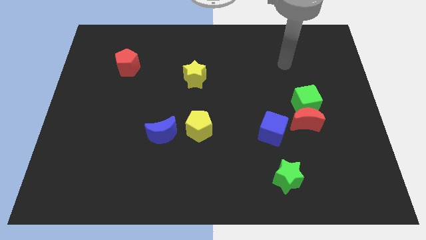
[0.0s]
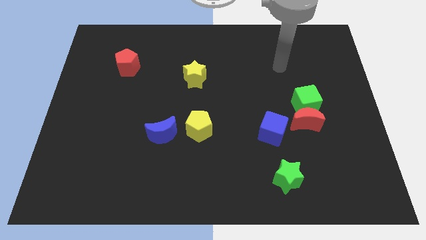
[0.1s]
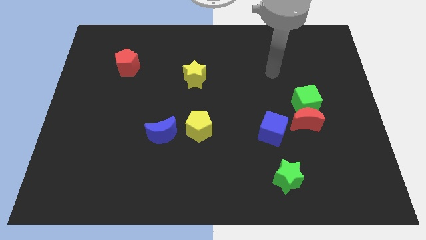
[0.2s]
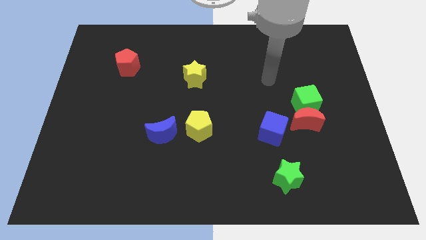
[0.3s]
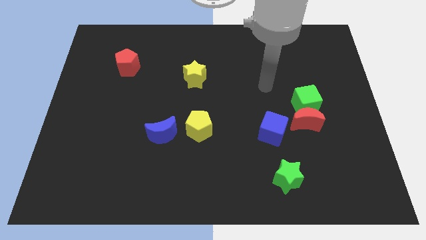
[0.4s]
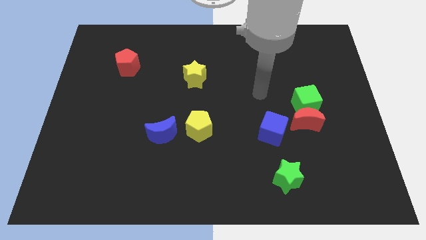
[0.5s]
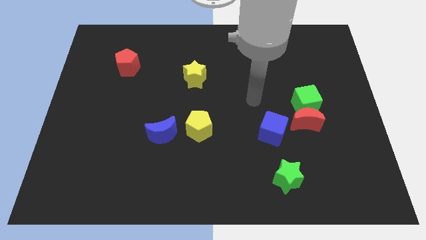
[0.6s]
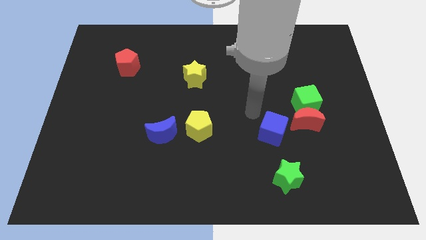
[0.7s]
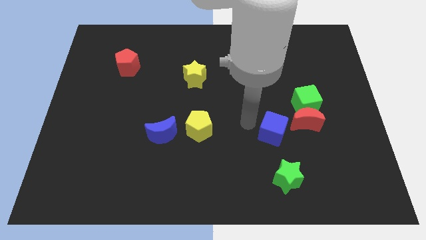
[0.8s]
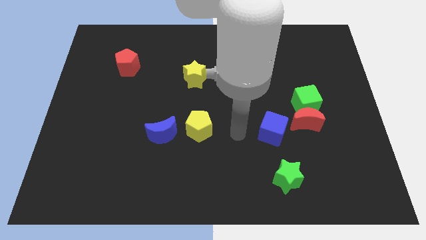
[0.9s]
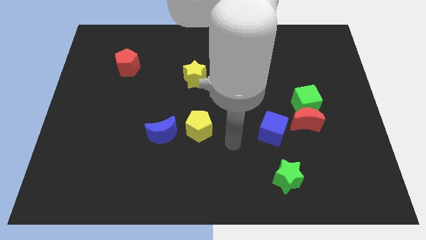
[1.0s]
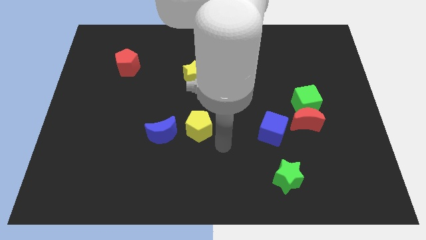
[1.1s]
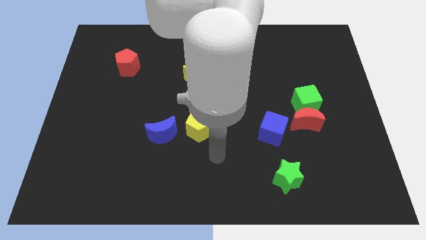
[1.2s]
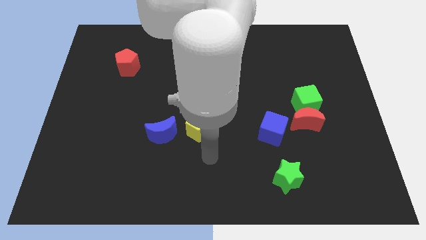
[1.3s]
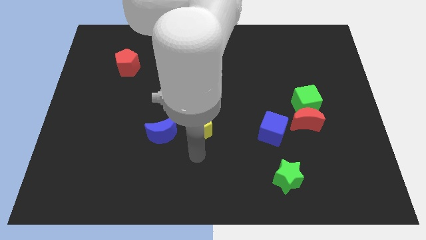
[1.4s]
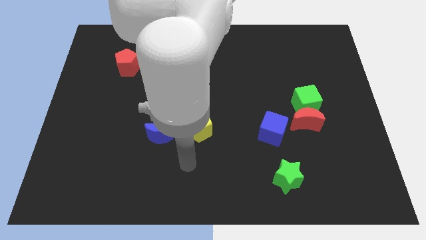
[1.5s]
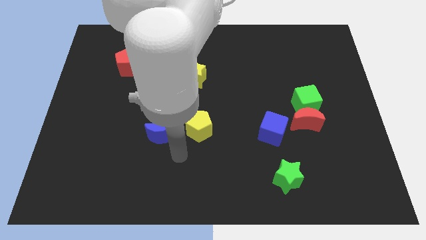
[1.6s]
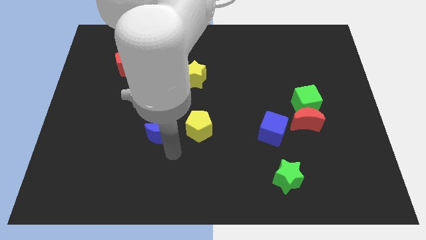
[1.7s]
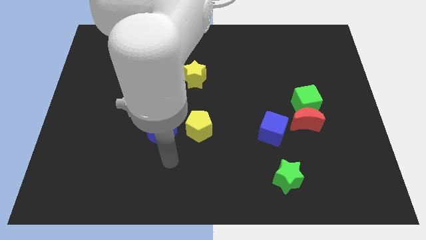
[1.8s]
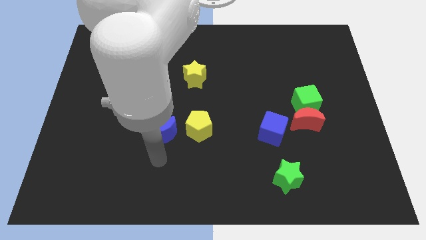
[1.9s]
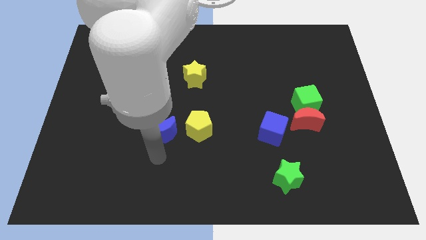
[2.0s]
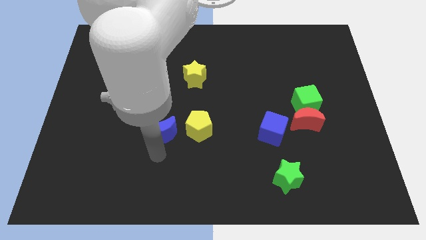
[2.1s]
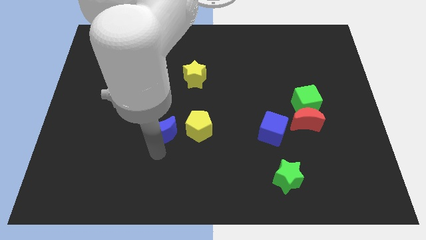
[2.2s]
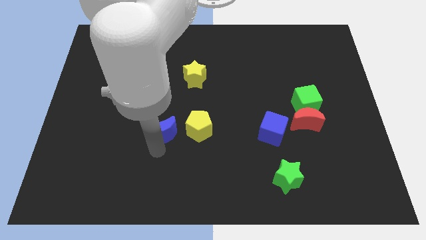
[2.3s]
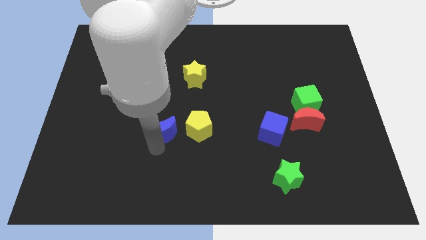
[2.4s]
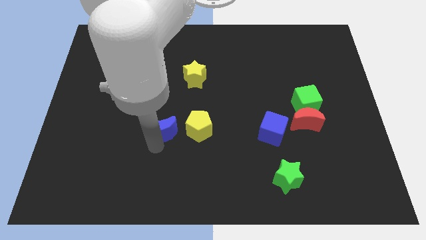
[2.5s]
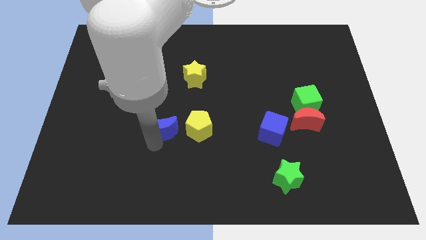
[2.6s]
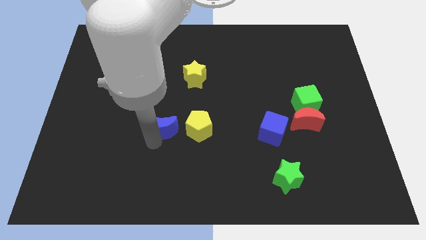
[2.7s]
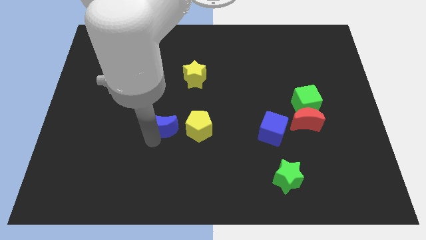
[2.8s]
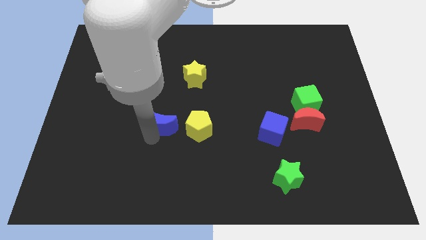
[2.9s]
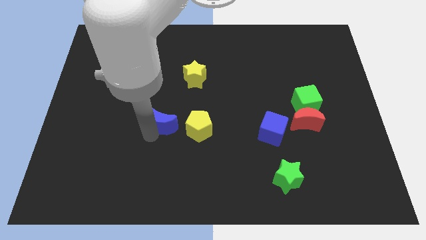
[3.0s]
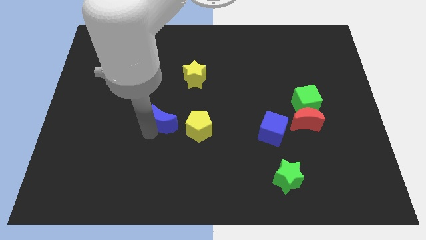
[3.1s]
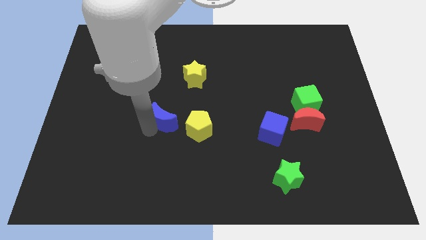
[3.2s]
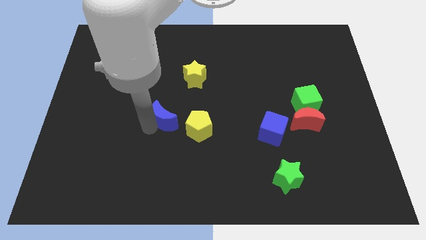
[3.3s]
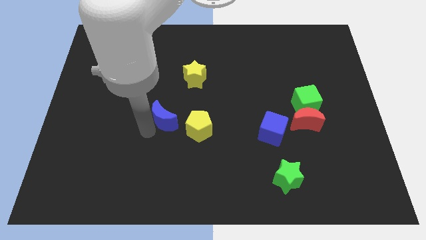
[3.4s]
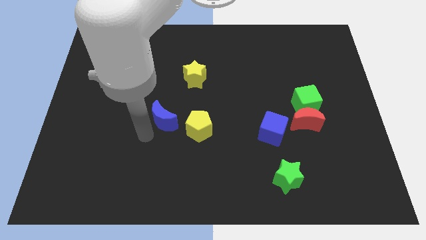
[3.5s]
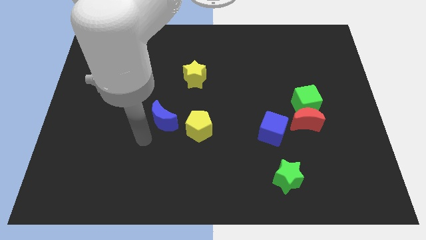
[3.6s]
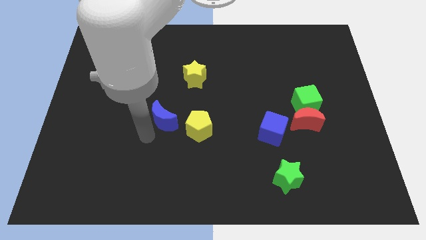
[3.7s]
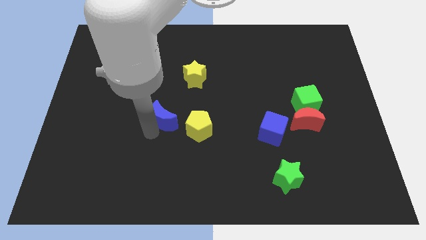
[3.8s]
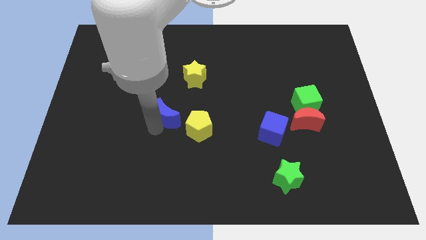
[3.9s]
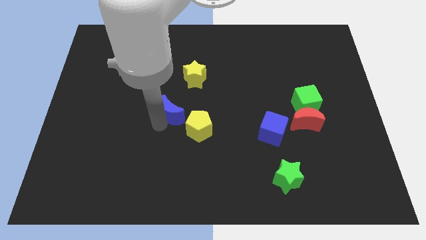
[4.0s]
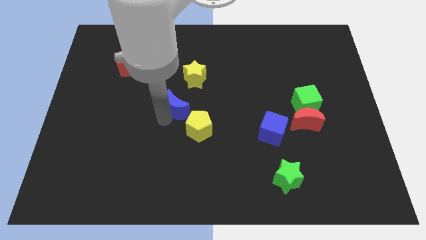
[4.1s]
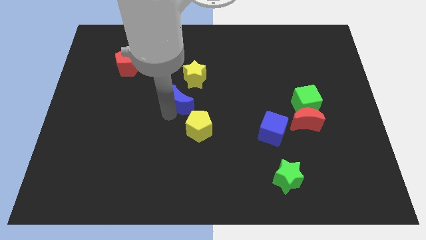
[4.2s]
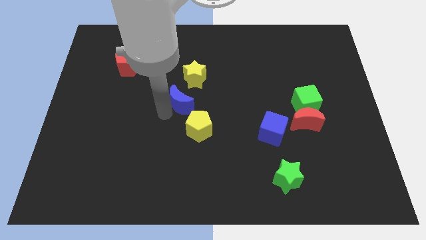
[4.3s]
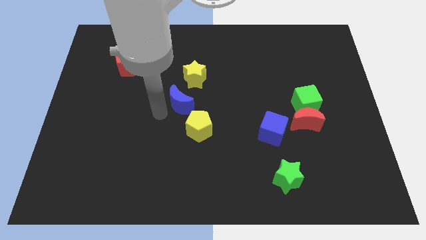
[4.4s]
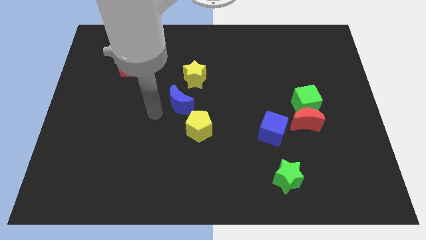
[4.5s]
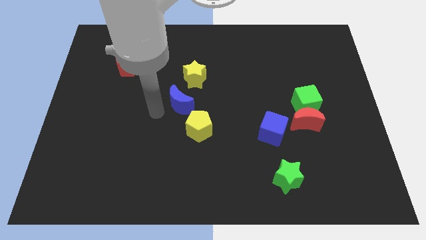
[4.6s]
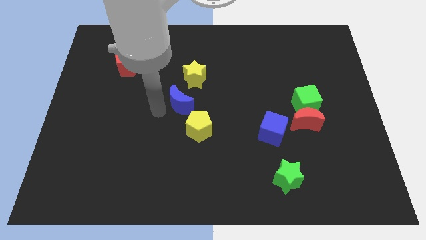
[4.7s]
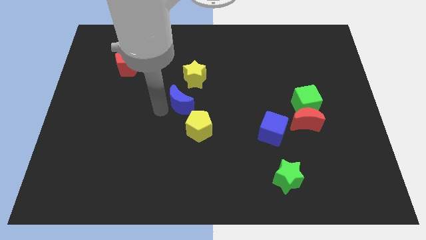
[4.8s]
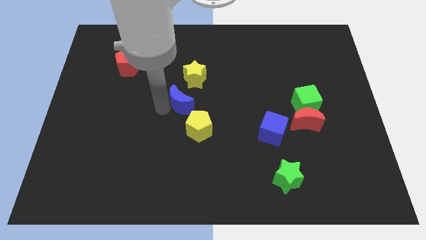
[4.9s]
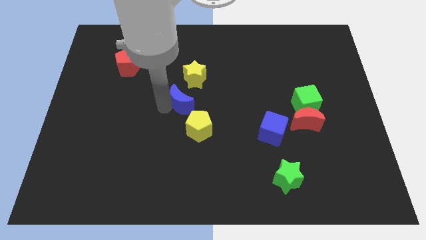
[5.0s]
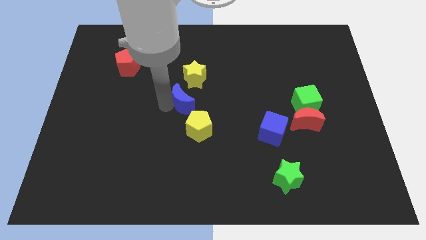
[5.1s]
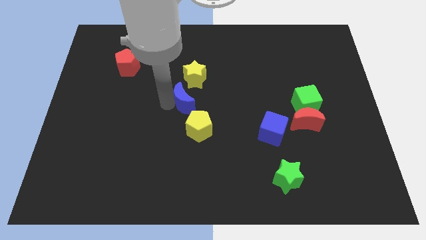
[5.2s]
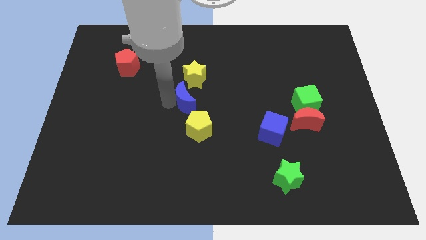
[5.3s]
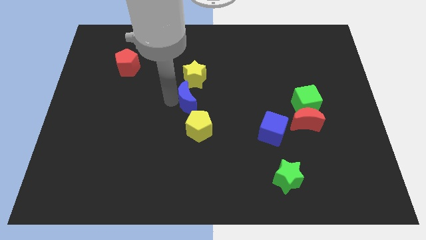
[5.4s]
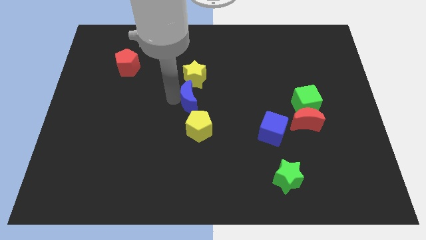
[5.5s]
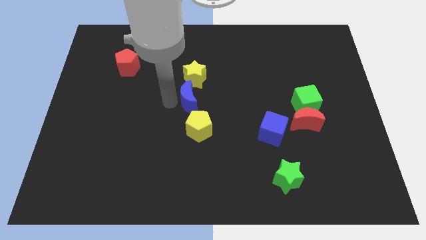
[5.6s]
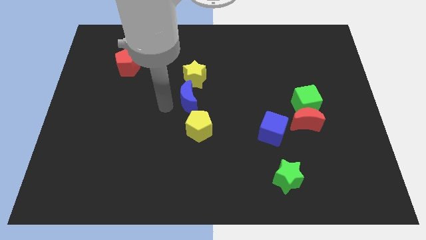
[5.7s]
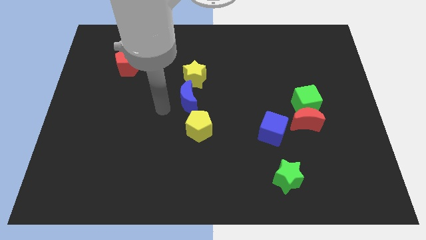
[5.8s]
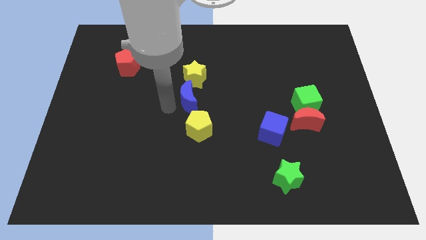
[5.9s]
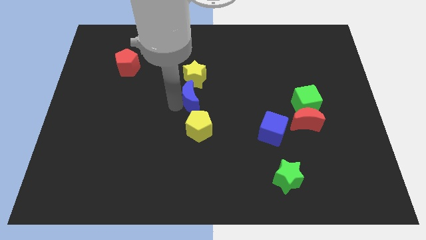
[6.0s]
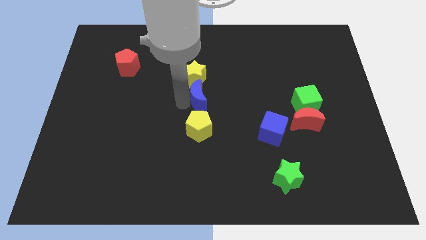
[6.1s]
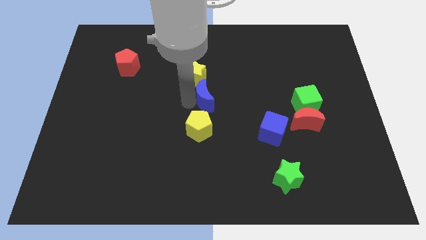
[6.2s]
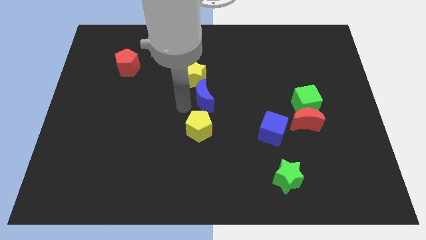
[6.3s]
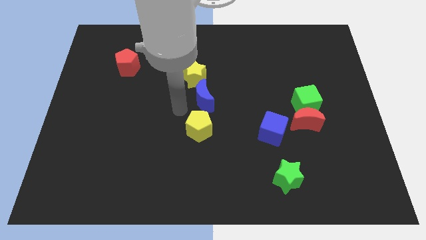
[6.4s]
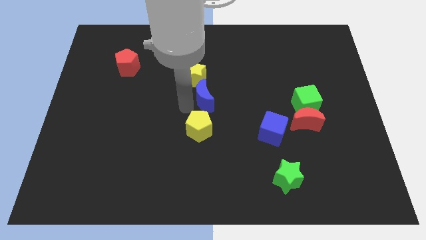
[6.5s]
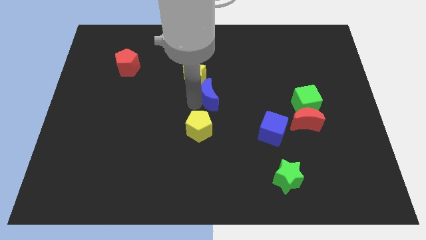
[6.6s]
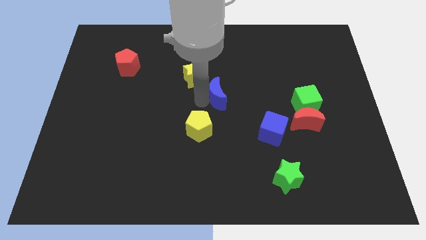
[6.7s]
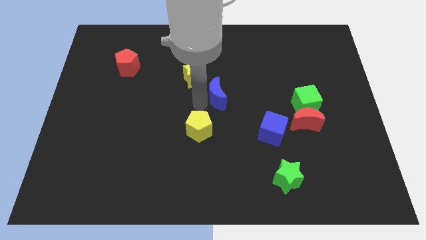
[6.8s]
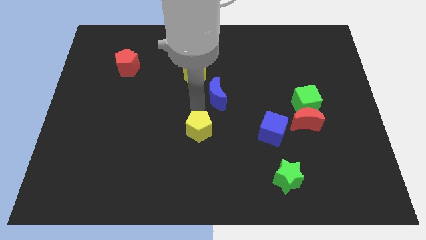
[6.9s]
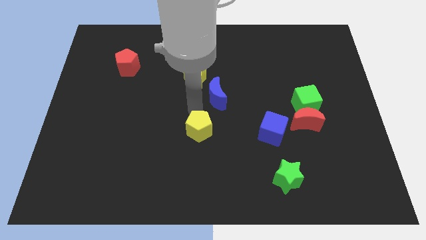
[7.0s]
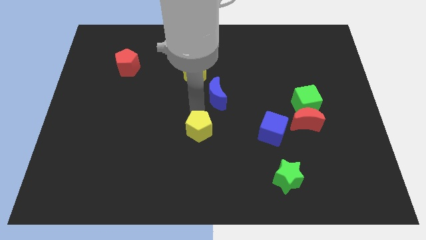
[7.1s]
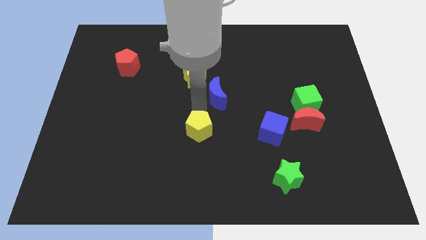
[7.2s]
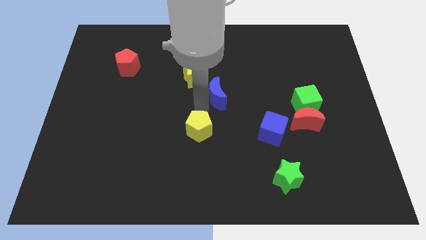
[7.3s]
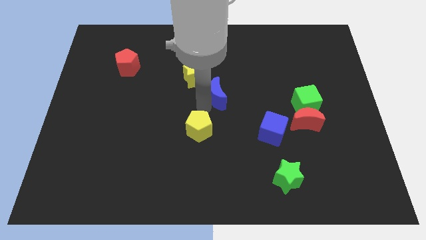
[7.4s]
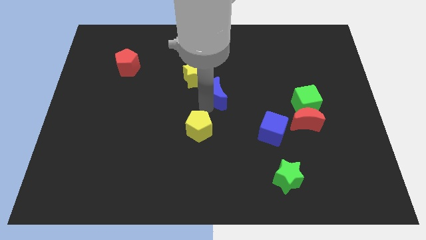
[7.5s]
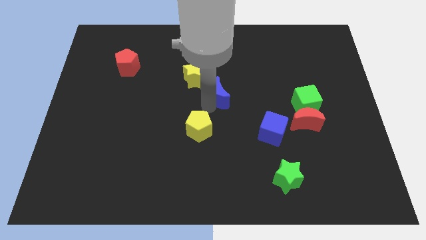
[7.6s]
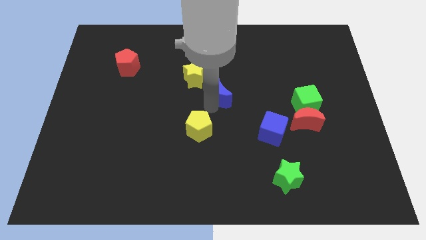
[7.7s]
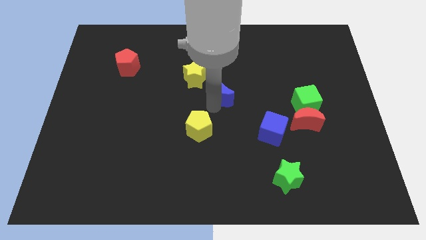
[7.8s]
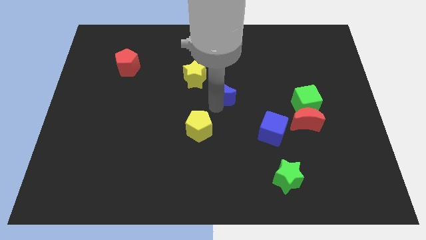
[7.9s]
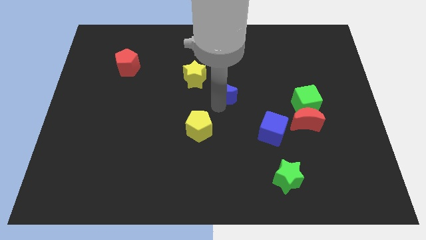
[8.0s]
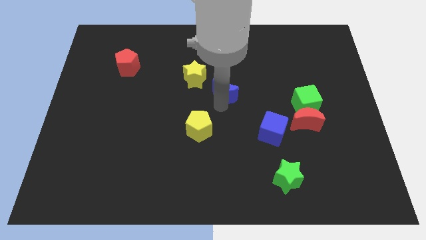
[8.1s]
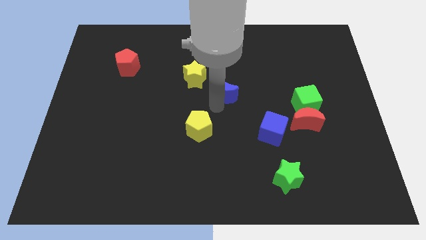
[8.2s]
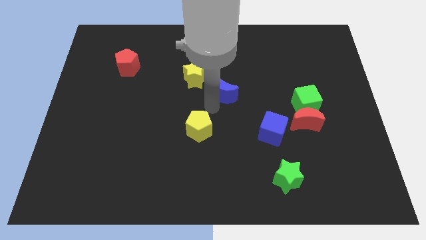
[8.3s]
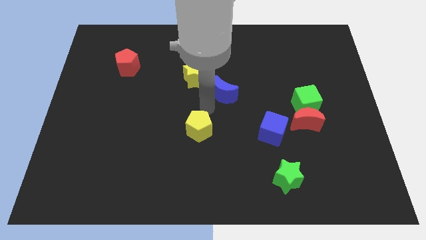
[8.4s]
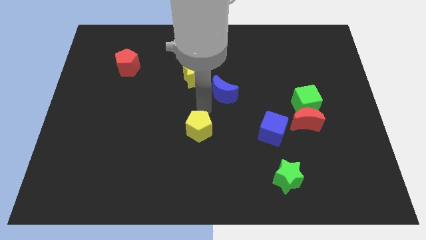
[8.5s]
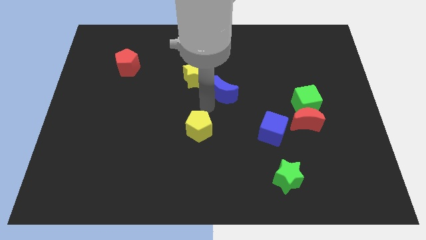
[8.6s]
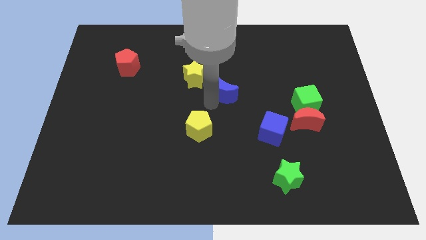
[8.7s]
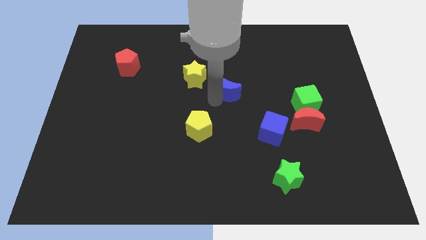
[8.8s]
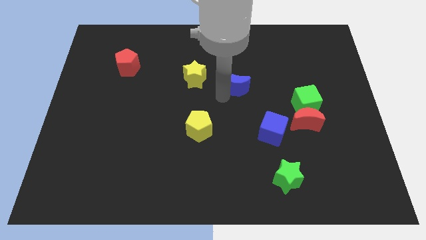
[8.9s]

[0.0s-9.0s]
slide the blue moon diagonally upwards and to the right
